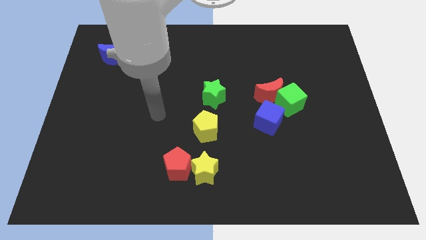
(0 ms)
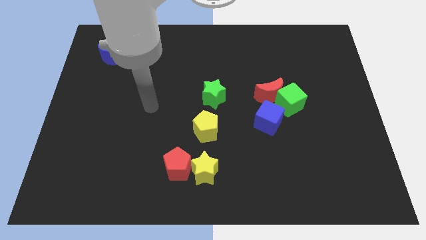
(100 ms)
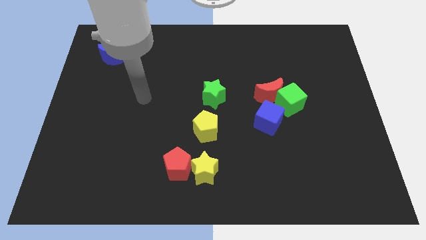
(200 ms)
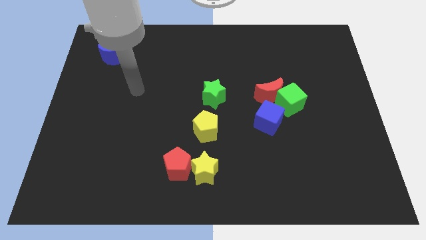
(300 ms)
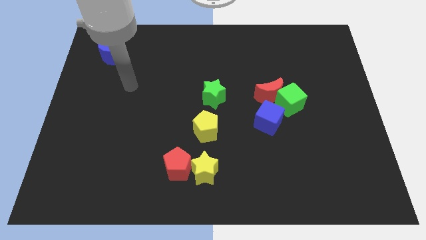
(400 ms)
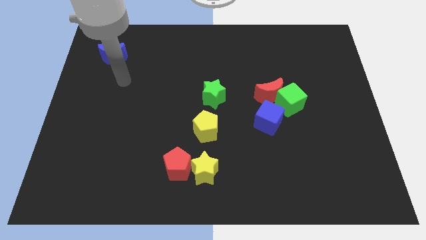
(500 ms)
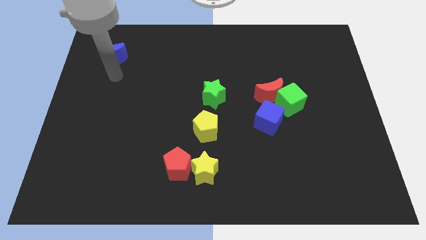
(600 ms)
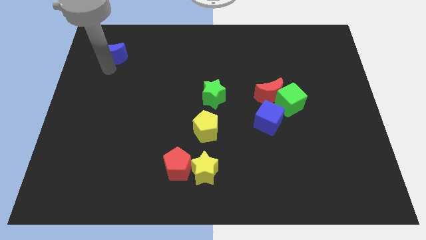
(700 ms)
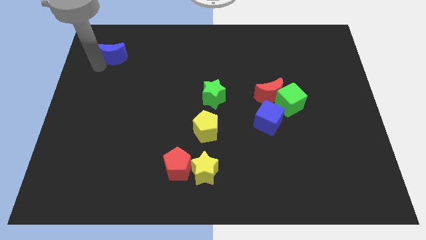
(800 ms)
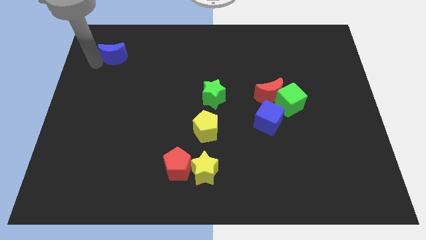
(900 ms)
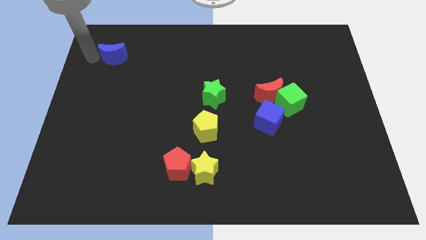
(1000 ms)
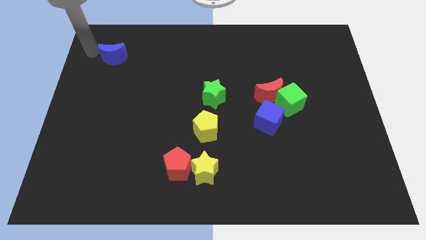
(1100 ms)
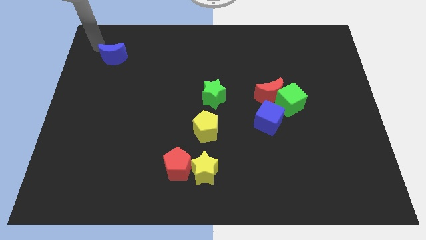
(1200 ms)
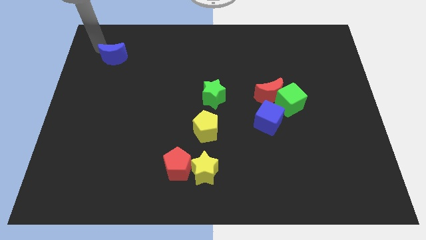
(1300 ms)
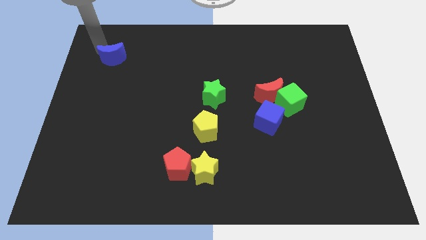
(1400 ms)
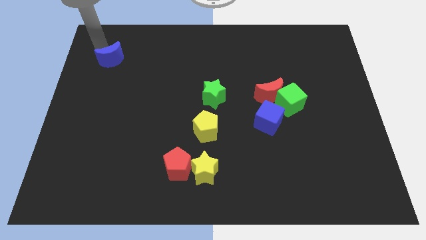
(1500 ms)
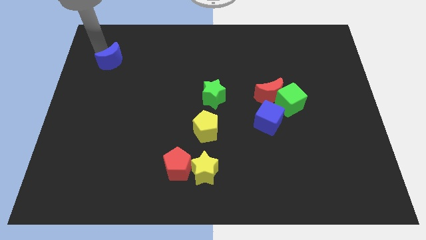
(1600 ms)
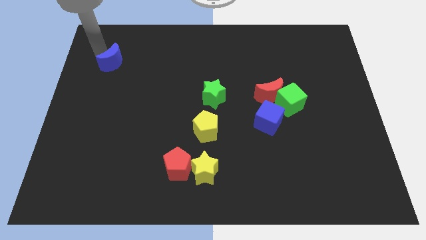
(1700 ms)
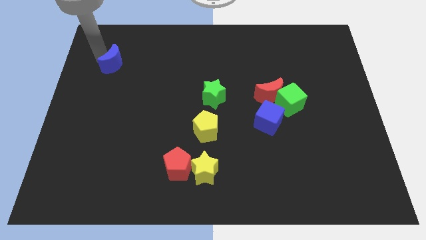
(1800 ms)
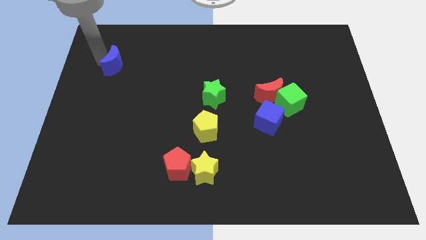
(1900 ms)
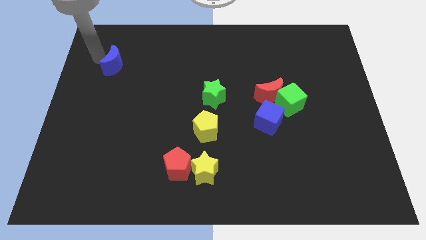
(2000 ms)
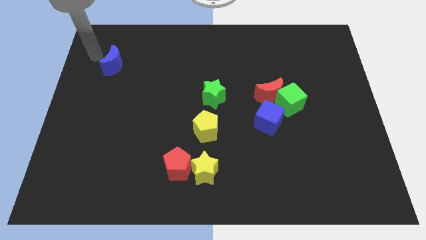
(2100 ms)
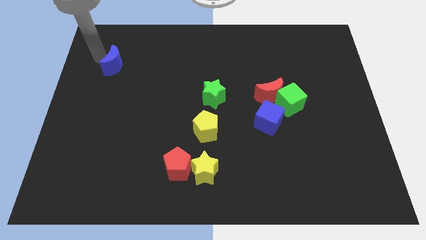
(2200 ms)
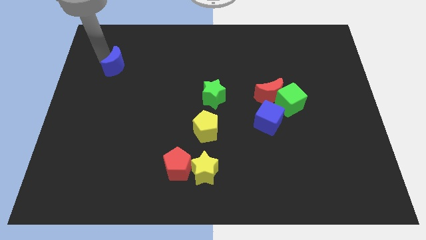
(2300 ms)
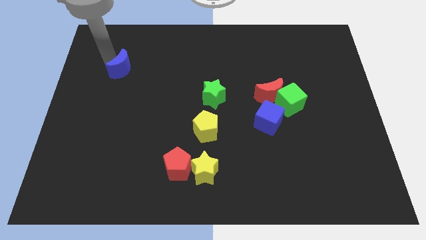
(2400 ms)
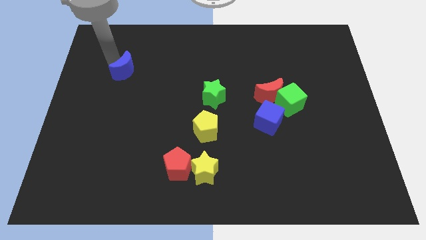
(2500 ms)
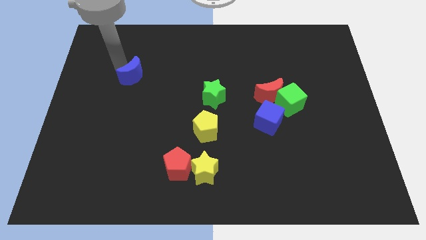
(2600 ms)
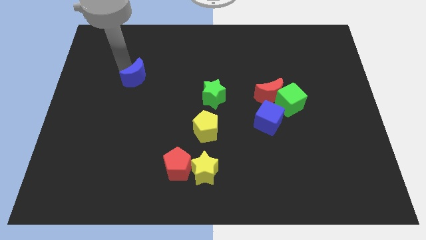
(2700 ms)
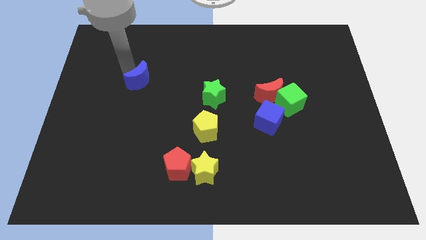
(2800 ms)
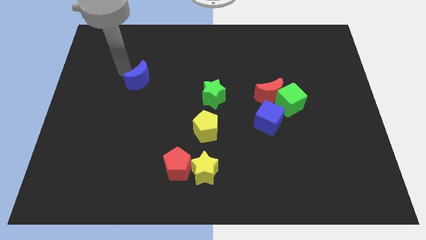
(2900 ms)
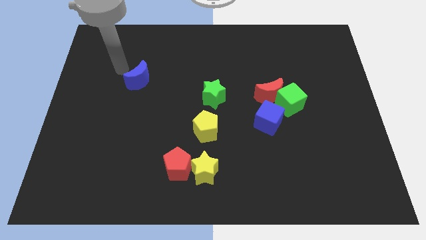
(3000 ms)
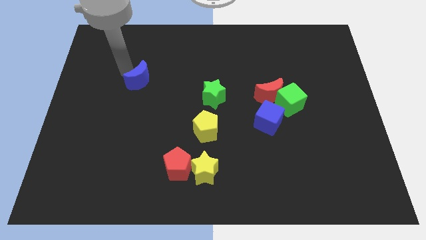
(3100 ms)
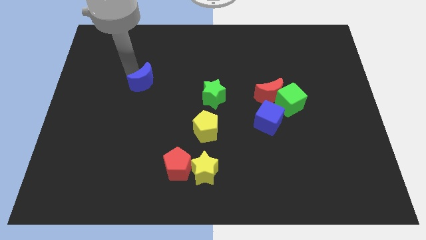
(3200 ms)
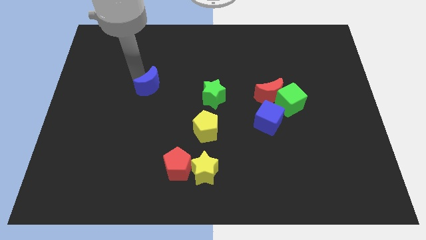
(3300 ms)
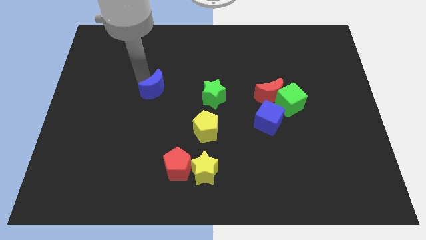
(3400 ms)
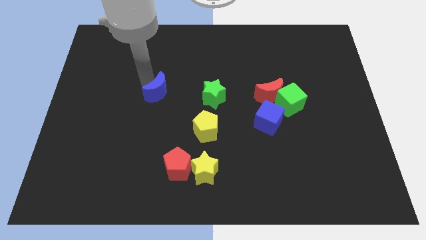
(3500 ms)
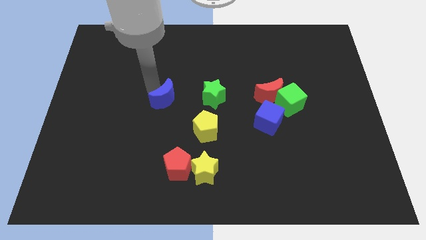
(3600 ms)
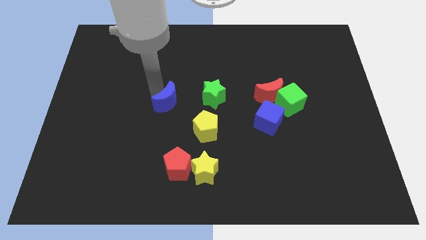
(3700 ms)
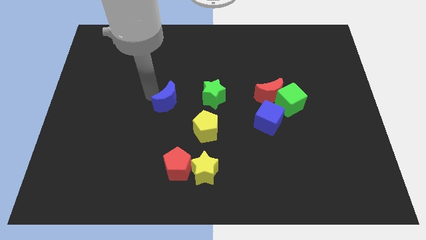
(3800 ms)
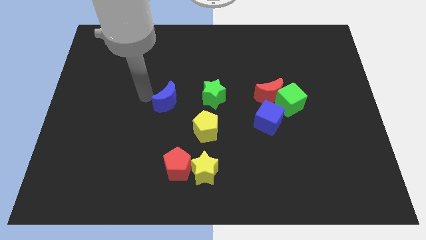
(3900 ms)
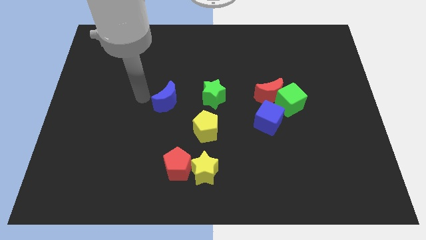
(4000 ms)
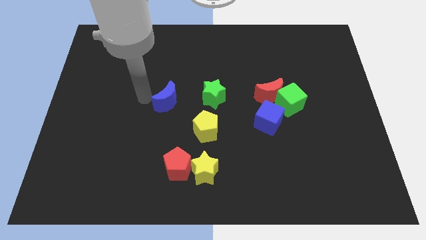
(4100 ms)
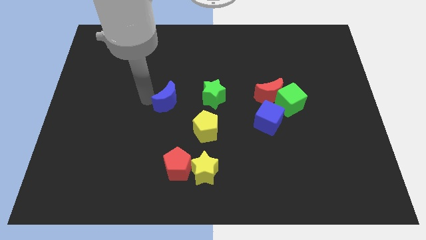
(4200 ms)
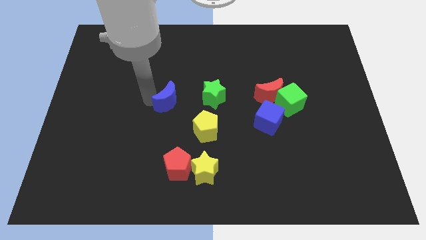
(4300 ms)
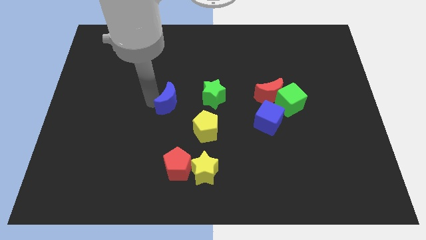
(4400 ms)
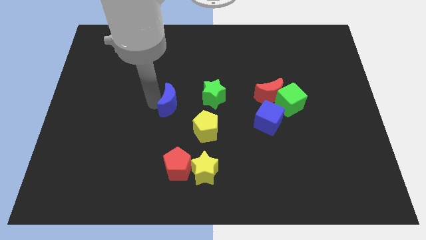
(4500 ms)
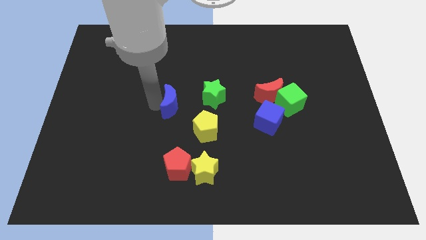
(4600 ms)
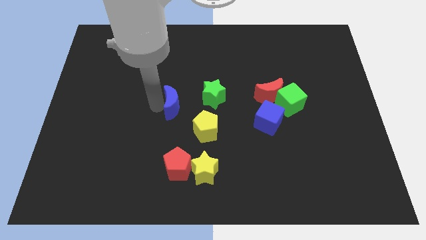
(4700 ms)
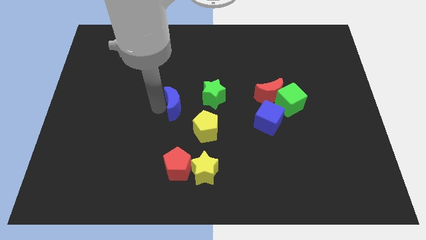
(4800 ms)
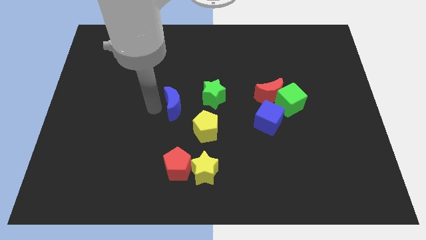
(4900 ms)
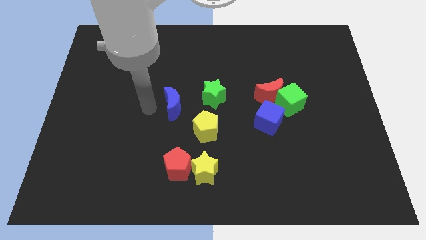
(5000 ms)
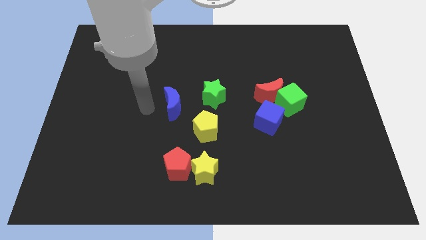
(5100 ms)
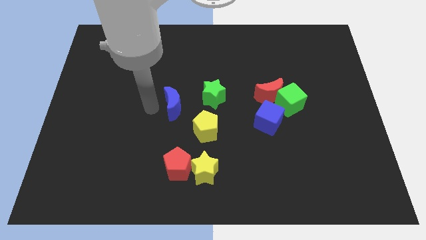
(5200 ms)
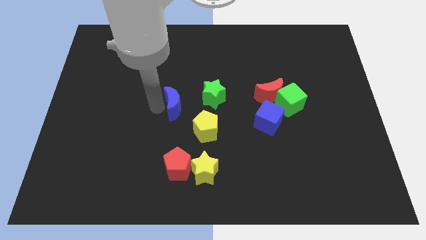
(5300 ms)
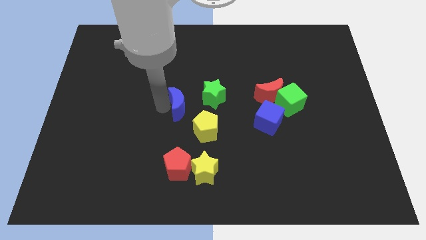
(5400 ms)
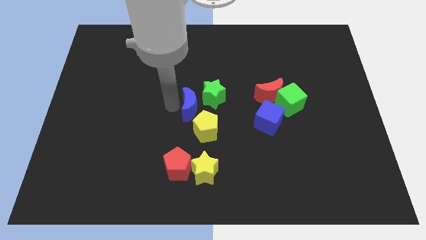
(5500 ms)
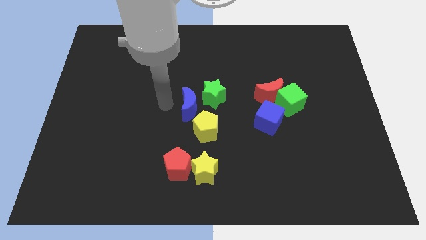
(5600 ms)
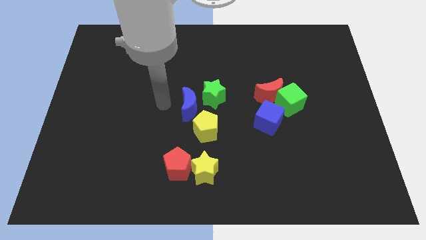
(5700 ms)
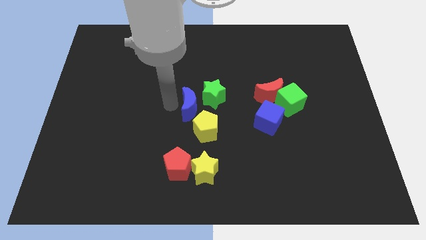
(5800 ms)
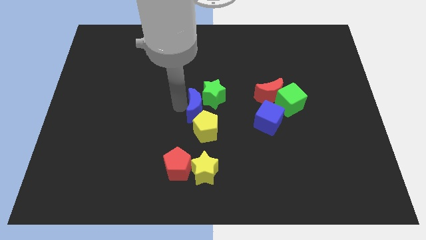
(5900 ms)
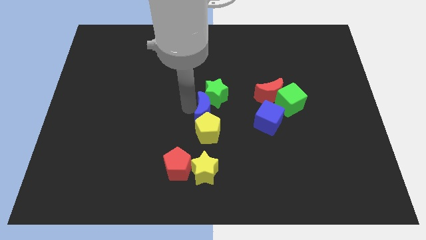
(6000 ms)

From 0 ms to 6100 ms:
move the blue moon to the top right of the yellow pentagon

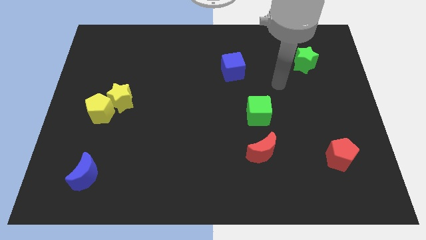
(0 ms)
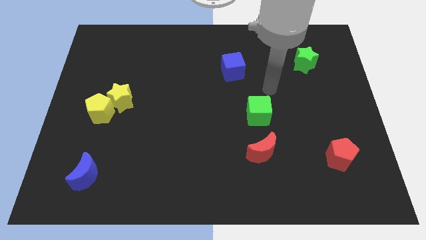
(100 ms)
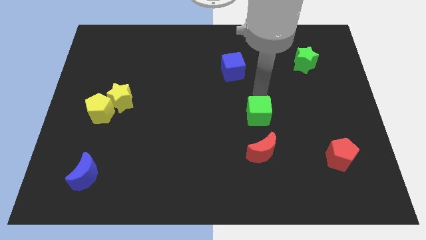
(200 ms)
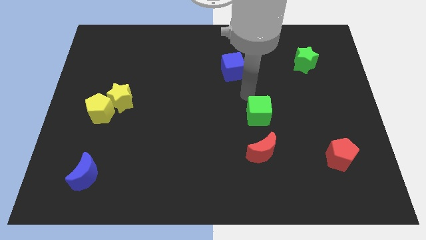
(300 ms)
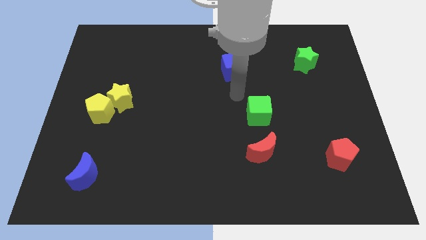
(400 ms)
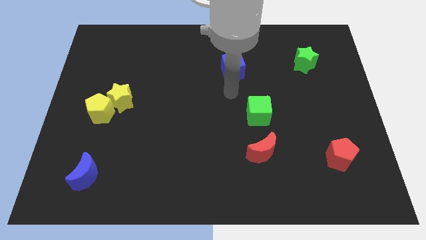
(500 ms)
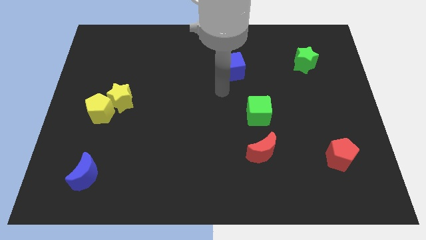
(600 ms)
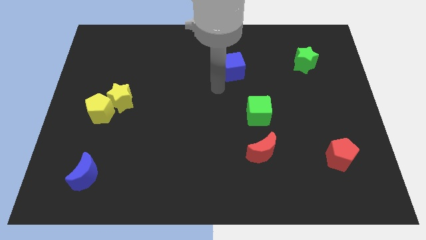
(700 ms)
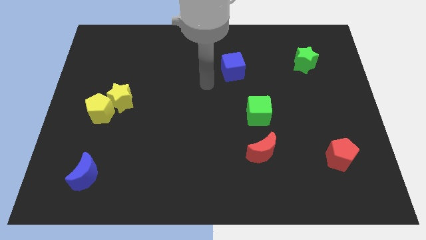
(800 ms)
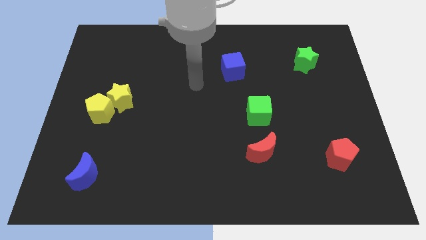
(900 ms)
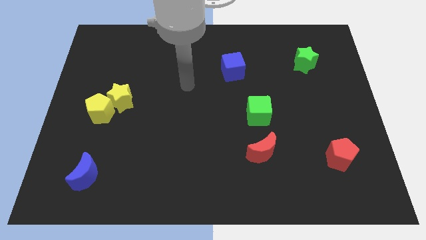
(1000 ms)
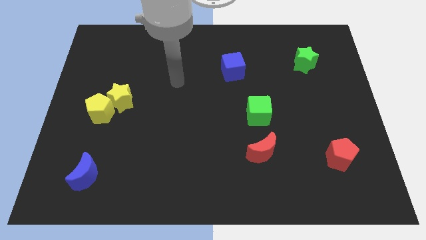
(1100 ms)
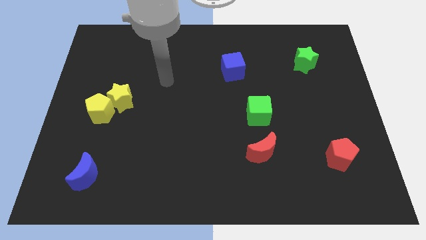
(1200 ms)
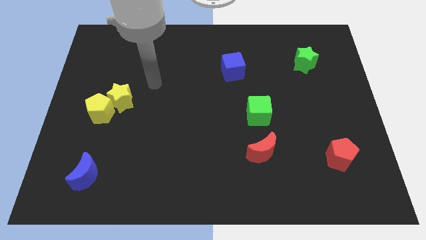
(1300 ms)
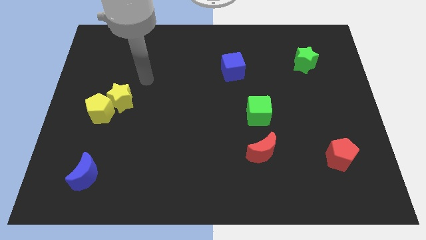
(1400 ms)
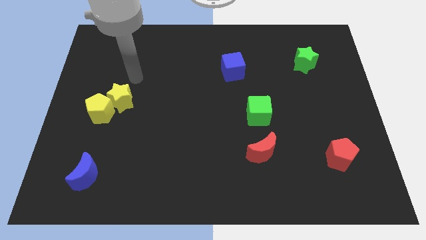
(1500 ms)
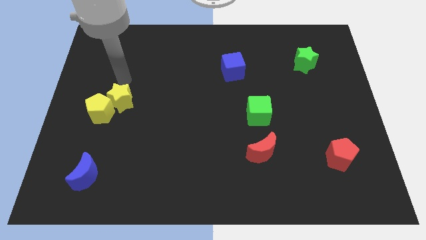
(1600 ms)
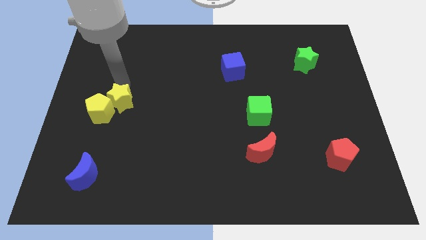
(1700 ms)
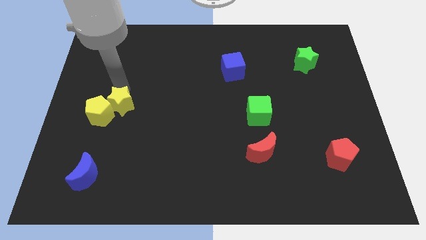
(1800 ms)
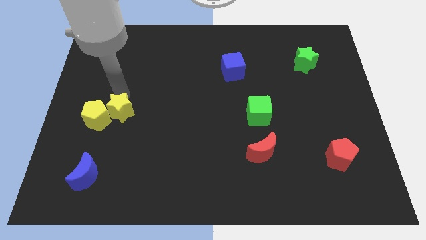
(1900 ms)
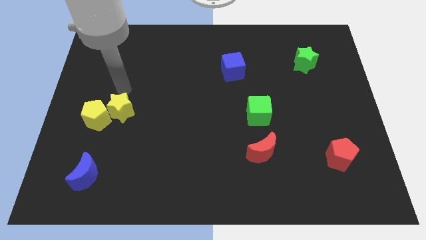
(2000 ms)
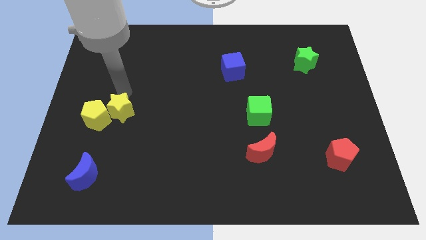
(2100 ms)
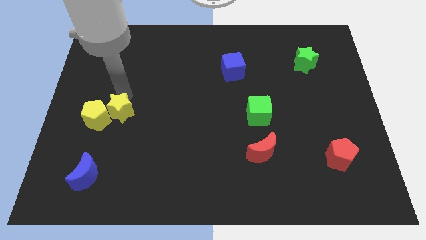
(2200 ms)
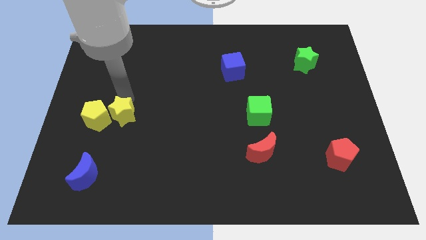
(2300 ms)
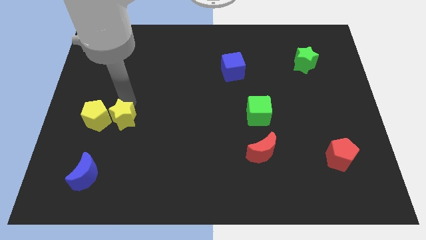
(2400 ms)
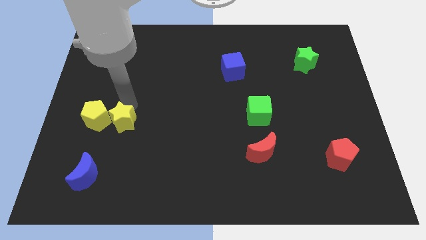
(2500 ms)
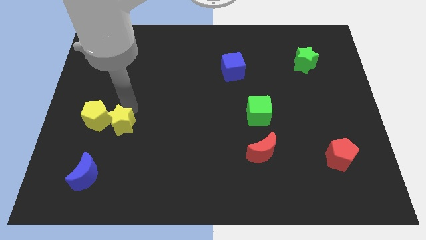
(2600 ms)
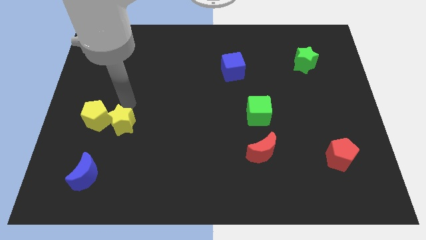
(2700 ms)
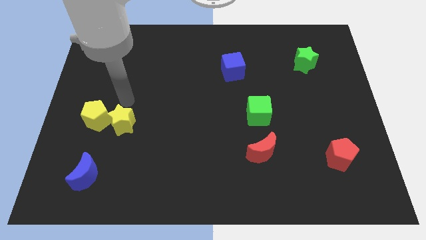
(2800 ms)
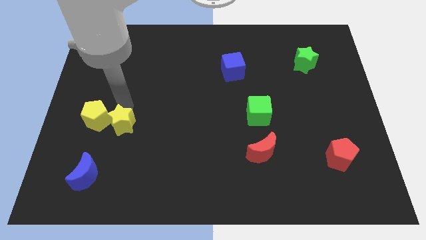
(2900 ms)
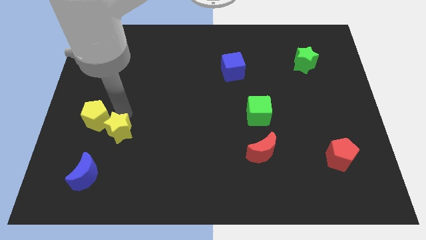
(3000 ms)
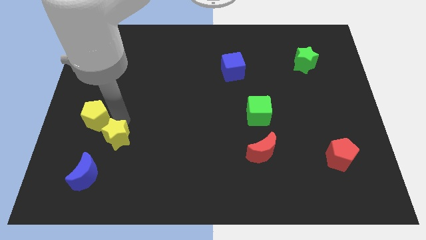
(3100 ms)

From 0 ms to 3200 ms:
move the yellow star to the top right of the blue moon
